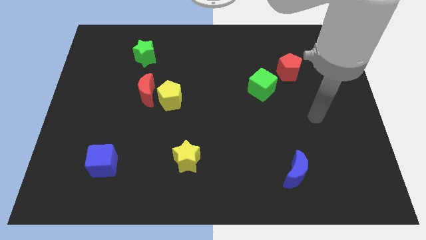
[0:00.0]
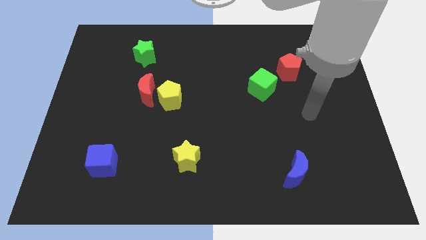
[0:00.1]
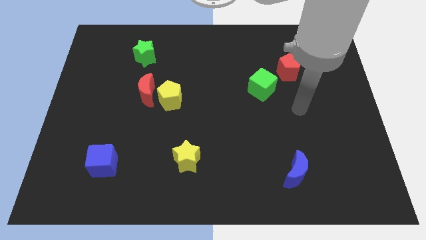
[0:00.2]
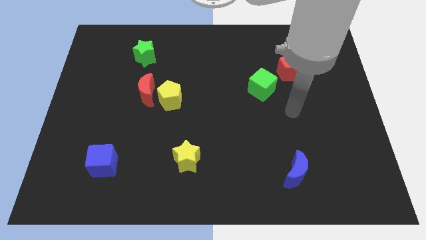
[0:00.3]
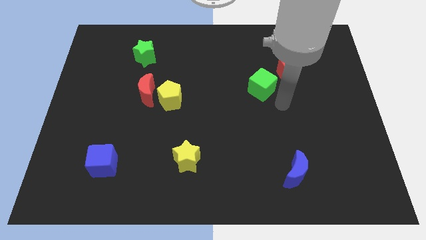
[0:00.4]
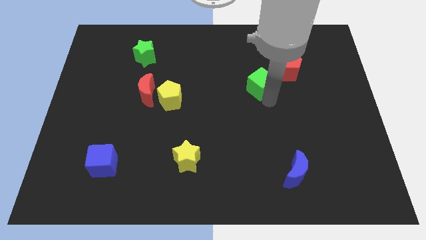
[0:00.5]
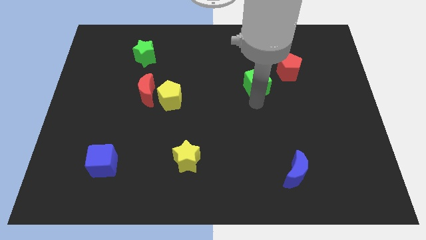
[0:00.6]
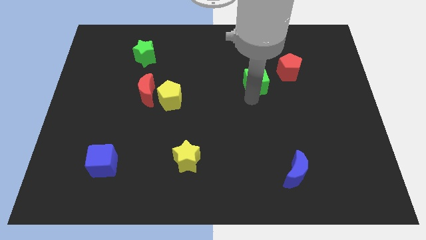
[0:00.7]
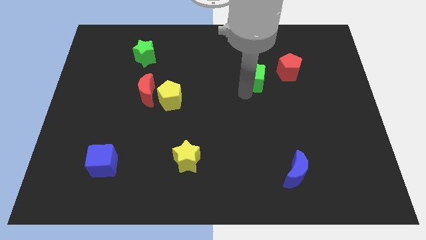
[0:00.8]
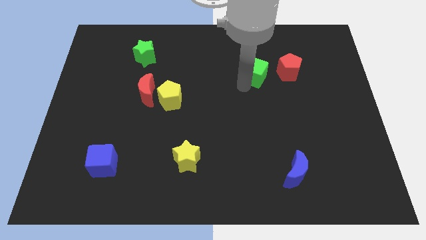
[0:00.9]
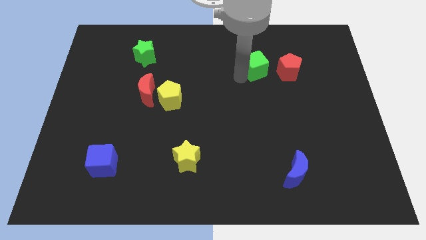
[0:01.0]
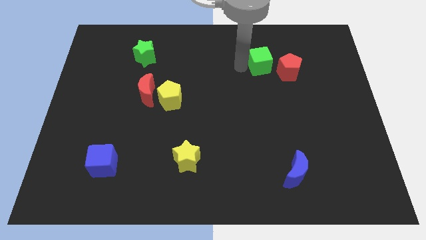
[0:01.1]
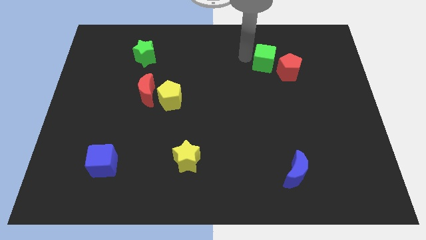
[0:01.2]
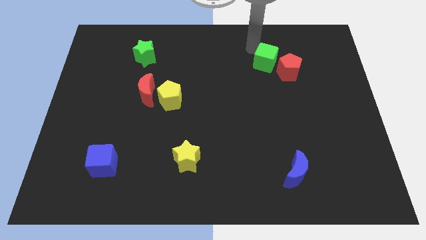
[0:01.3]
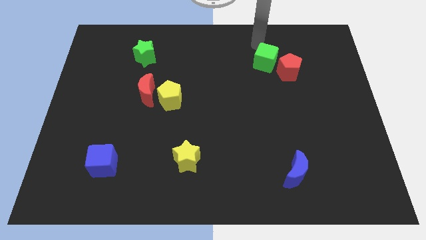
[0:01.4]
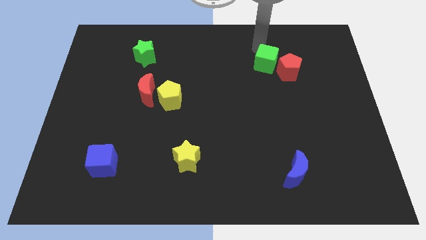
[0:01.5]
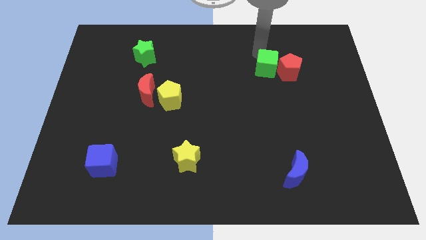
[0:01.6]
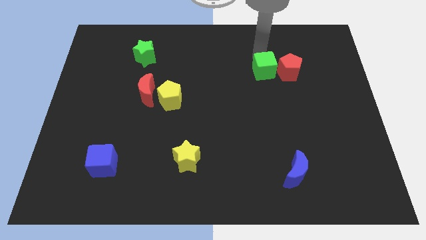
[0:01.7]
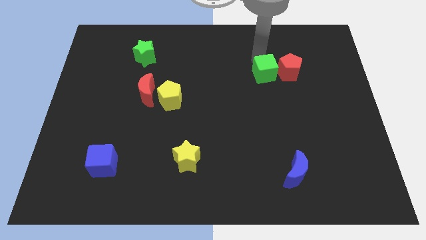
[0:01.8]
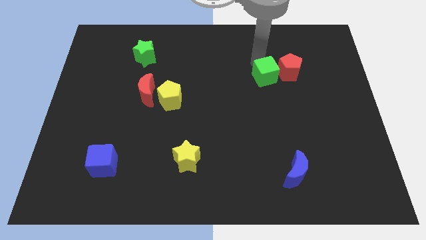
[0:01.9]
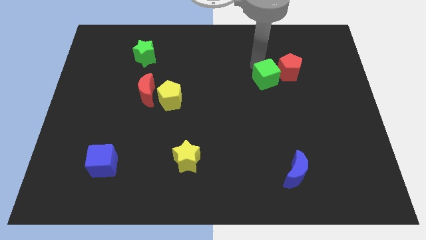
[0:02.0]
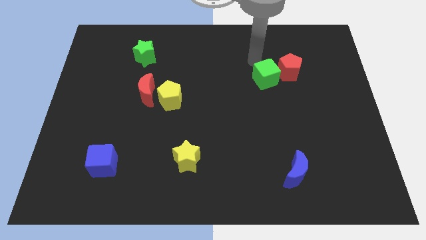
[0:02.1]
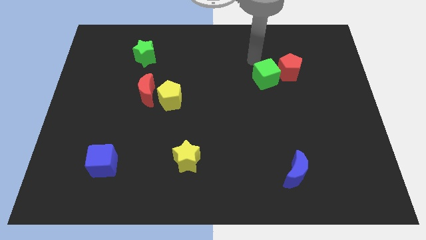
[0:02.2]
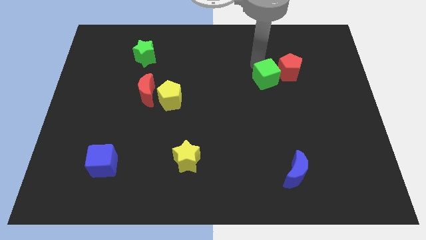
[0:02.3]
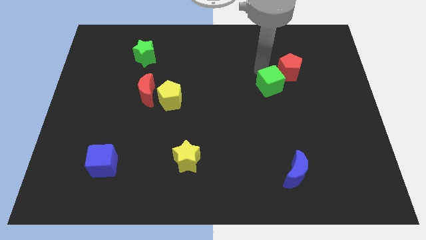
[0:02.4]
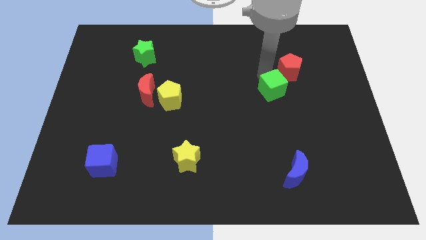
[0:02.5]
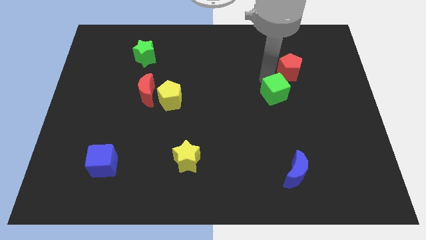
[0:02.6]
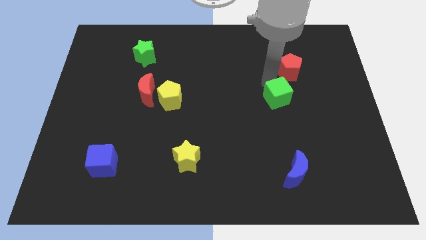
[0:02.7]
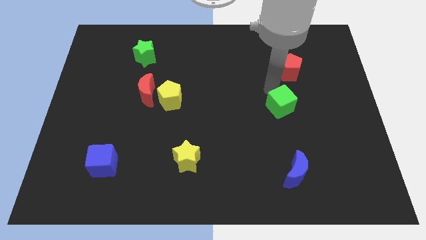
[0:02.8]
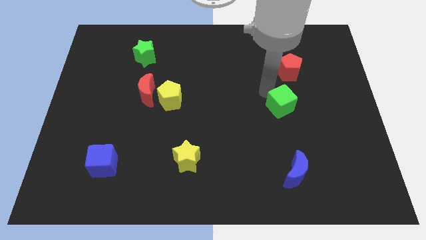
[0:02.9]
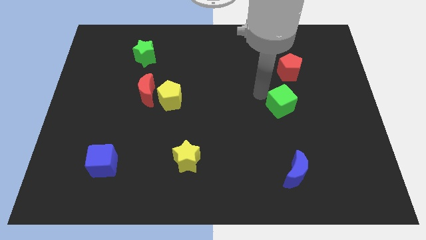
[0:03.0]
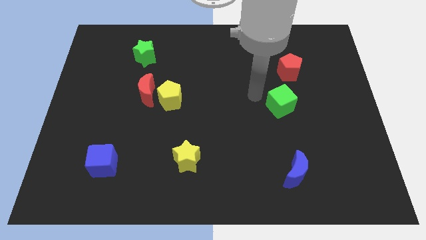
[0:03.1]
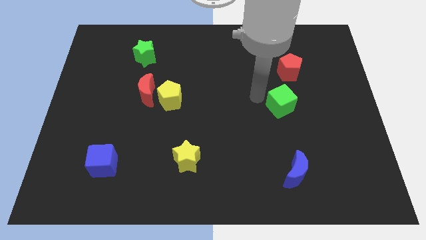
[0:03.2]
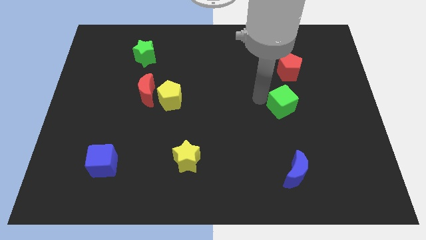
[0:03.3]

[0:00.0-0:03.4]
slightly slide the green cube down and to the right diagonally

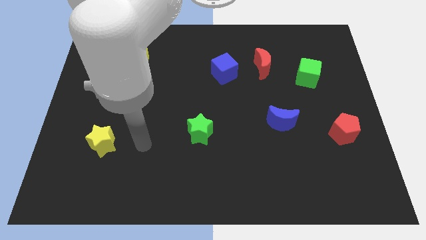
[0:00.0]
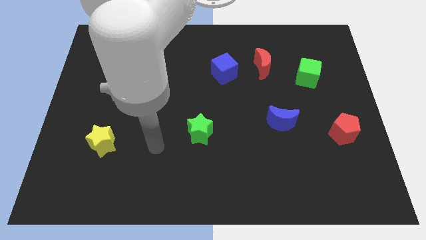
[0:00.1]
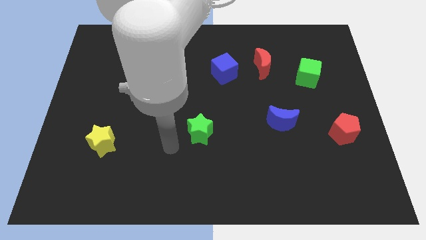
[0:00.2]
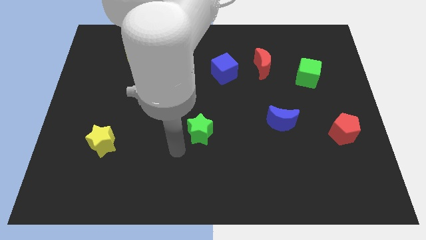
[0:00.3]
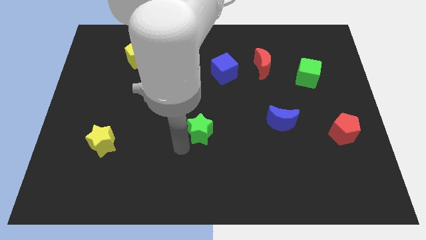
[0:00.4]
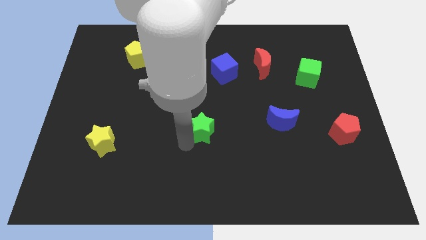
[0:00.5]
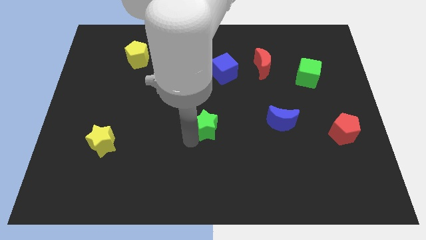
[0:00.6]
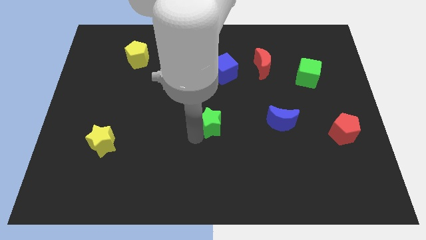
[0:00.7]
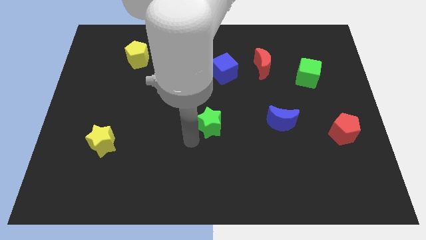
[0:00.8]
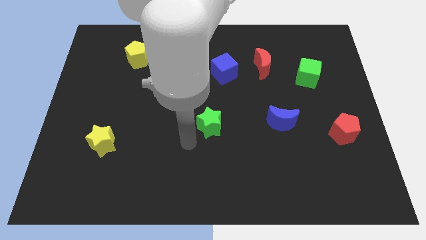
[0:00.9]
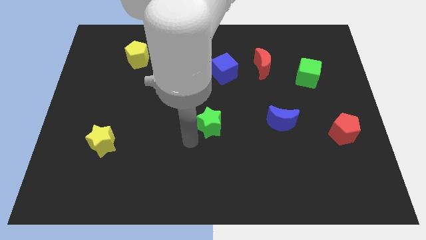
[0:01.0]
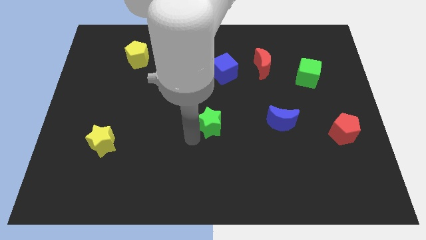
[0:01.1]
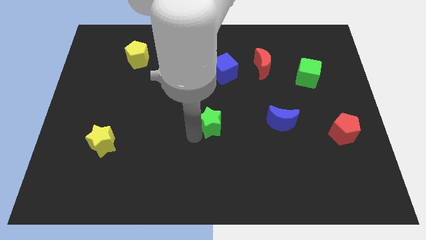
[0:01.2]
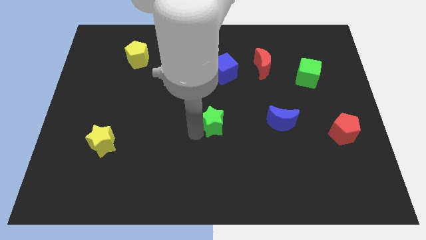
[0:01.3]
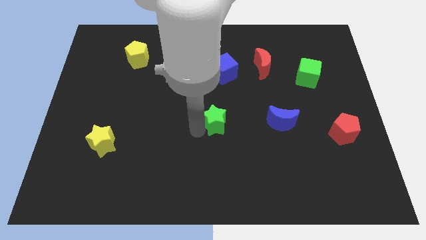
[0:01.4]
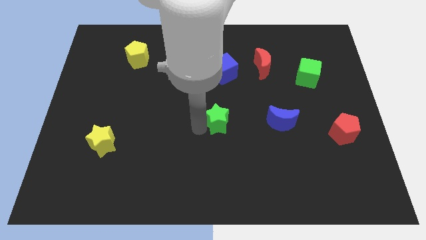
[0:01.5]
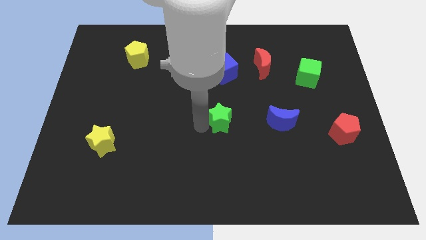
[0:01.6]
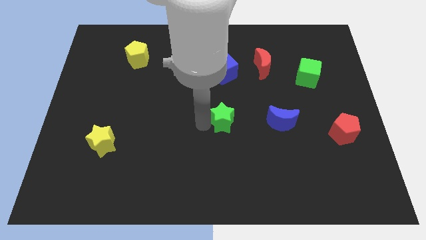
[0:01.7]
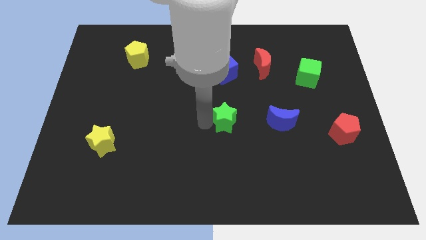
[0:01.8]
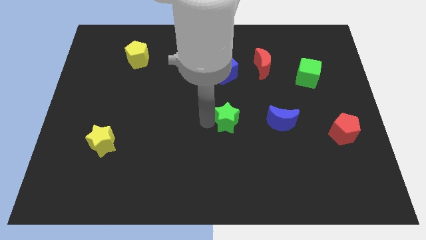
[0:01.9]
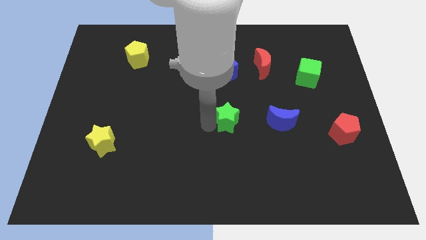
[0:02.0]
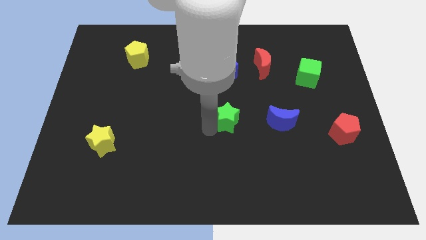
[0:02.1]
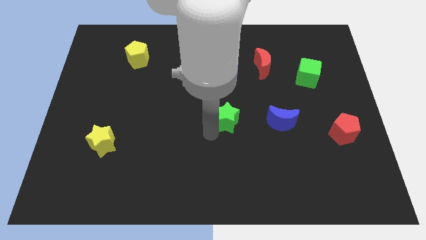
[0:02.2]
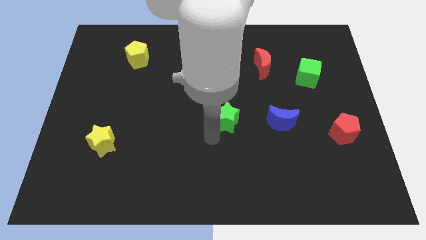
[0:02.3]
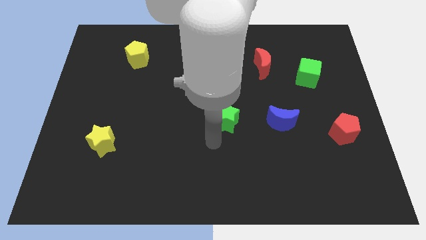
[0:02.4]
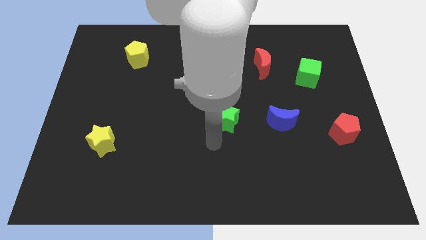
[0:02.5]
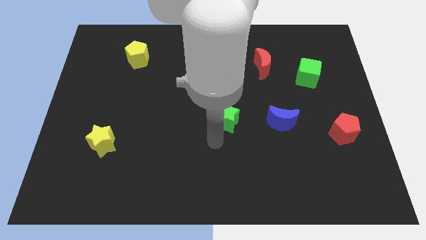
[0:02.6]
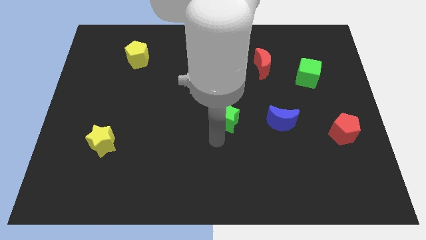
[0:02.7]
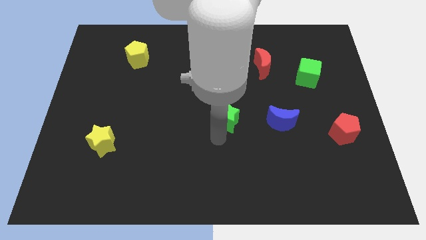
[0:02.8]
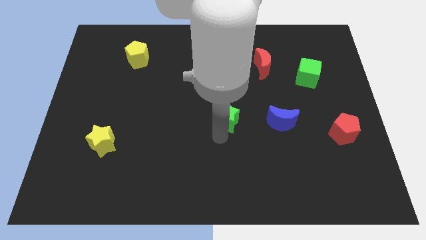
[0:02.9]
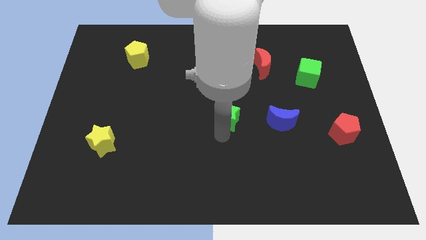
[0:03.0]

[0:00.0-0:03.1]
slightly move the green star diagonally upwards and right

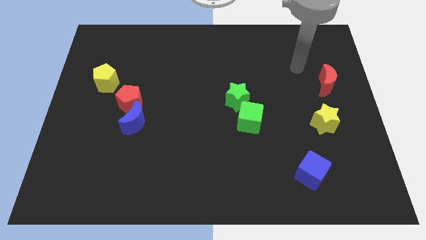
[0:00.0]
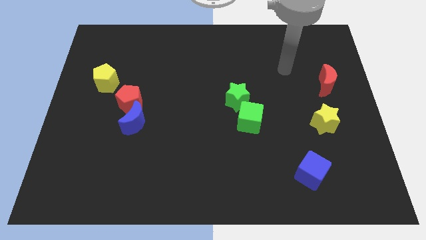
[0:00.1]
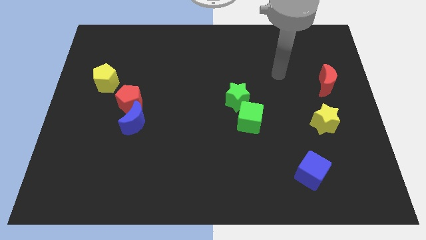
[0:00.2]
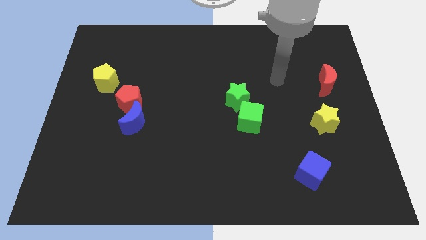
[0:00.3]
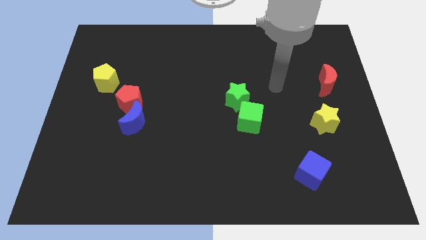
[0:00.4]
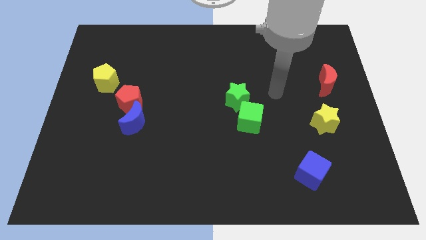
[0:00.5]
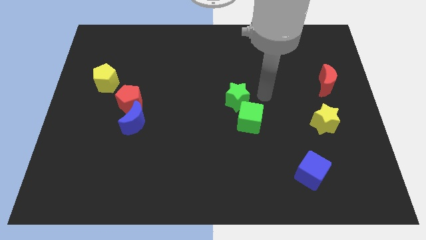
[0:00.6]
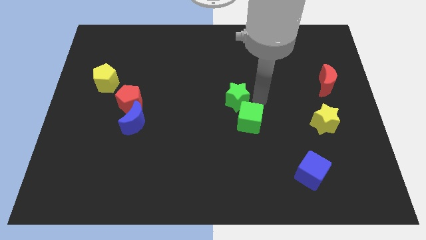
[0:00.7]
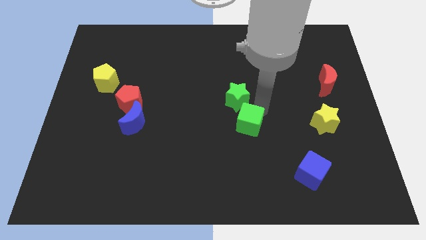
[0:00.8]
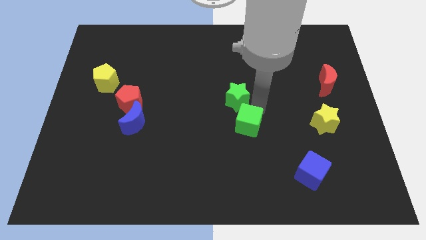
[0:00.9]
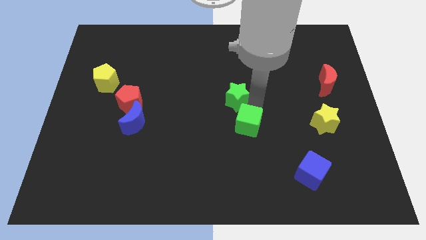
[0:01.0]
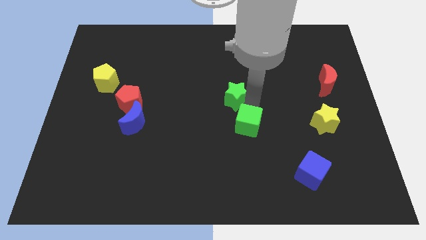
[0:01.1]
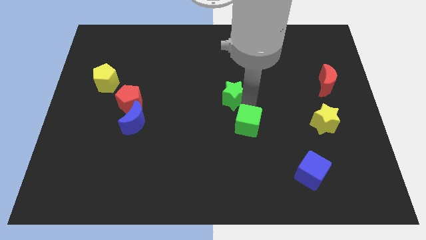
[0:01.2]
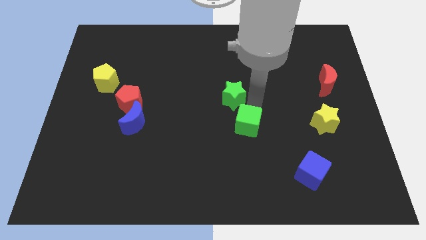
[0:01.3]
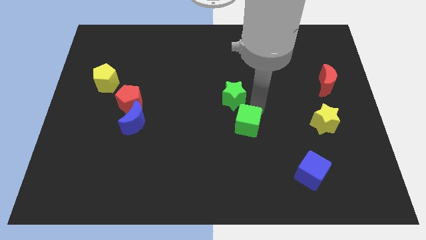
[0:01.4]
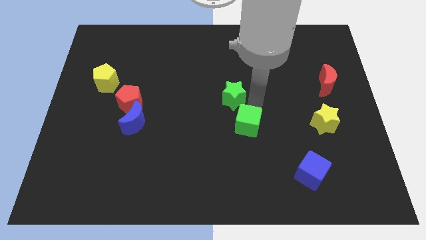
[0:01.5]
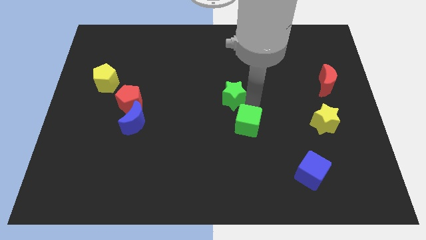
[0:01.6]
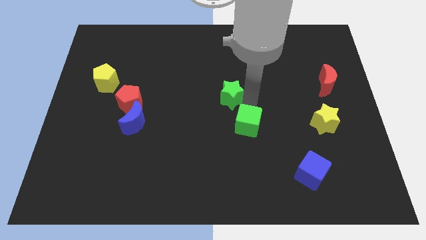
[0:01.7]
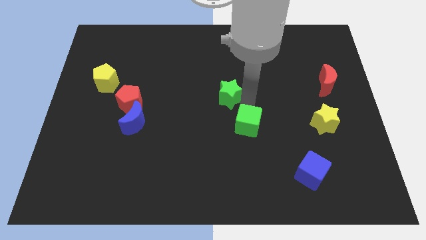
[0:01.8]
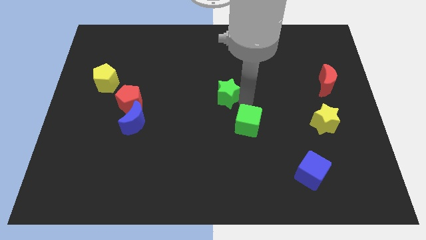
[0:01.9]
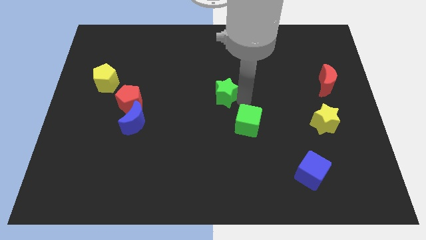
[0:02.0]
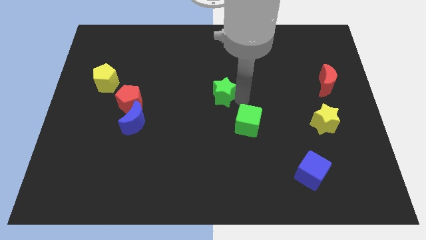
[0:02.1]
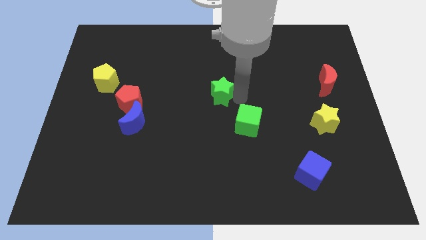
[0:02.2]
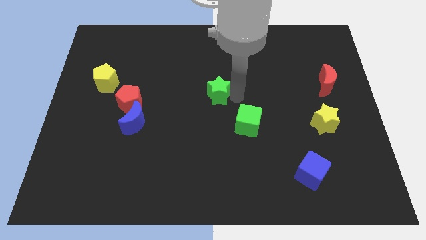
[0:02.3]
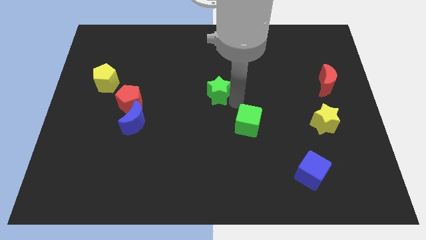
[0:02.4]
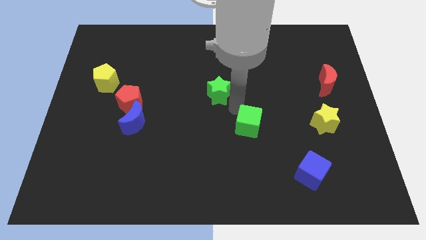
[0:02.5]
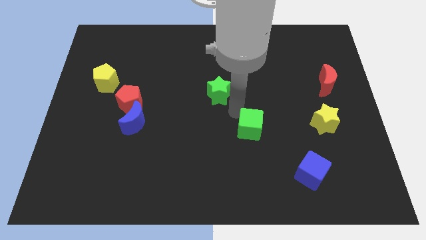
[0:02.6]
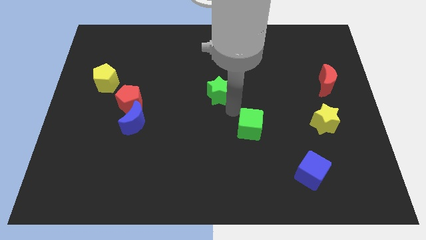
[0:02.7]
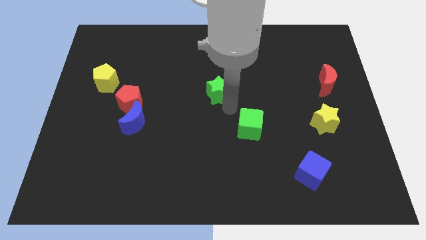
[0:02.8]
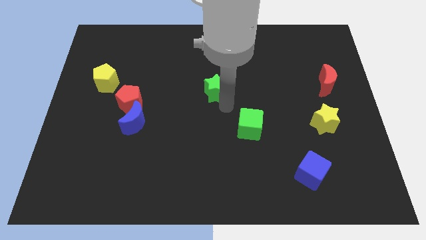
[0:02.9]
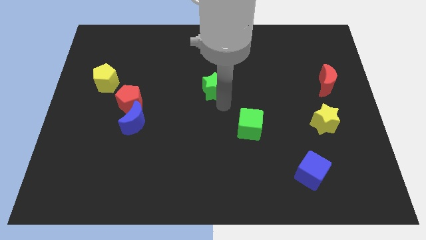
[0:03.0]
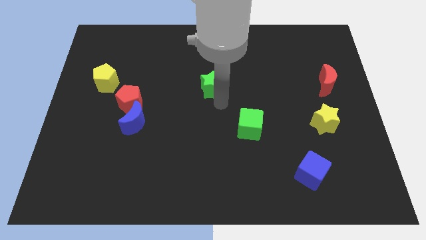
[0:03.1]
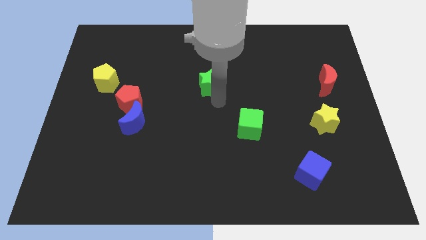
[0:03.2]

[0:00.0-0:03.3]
move the green star a little upwards and left diagonally
